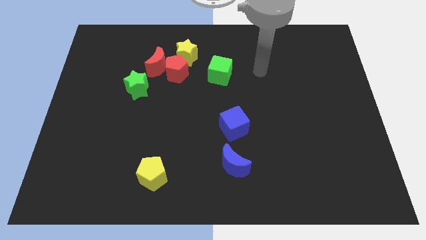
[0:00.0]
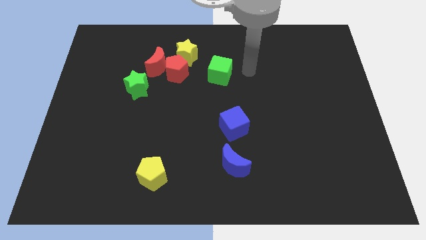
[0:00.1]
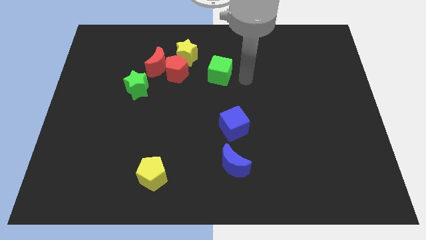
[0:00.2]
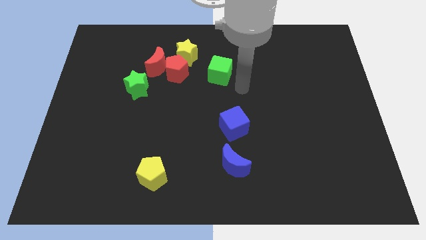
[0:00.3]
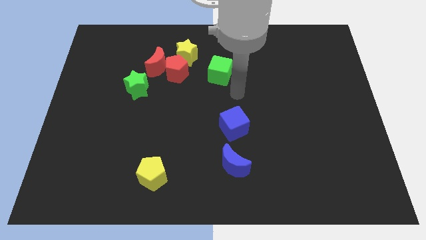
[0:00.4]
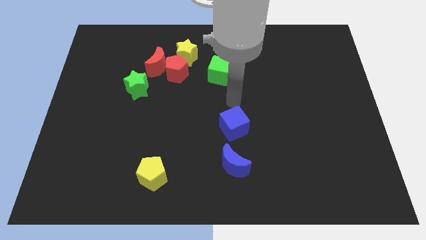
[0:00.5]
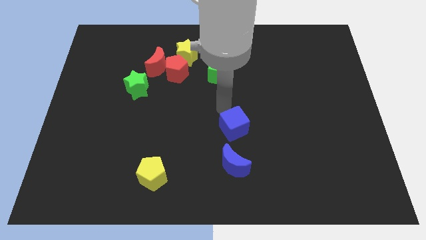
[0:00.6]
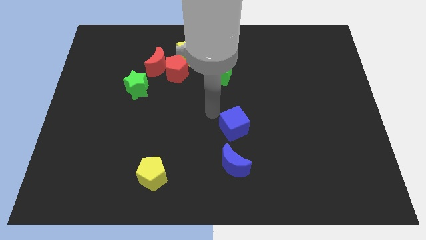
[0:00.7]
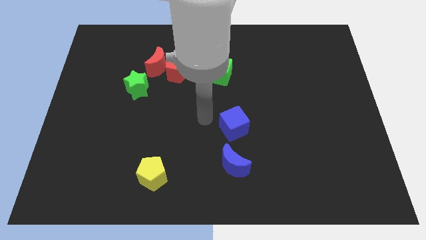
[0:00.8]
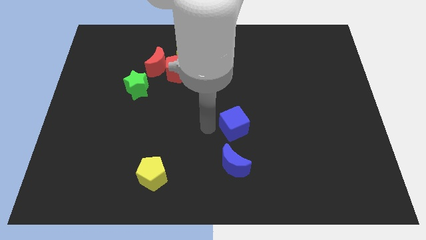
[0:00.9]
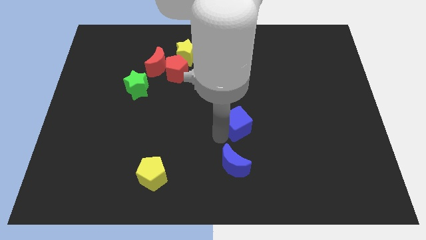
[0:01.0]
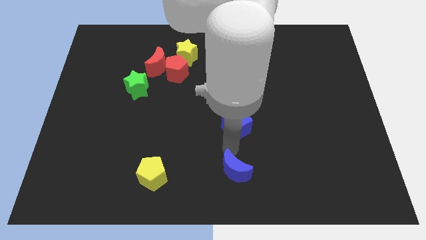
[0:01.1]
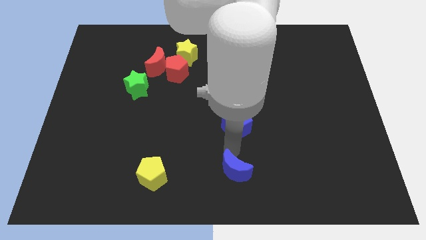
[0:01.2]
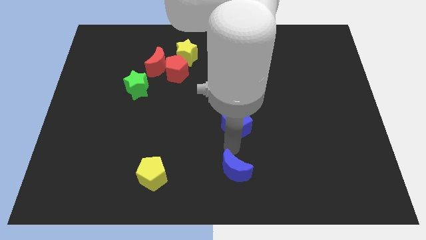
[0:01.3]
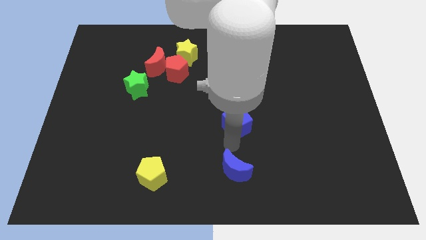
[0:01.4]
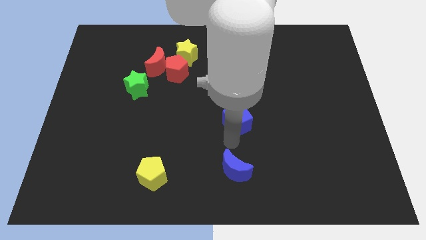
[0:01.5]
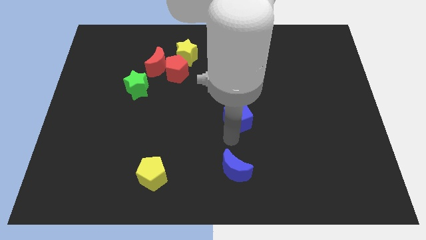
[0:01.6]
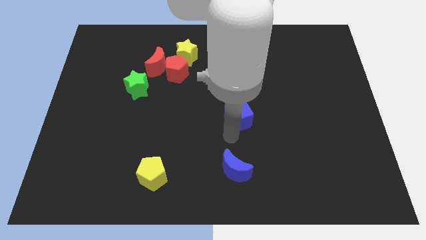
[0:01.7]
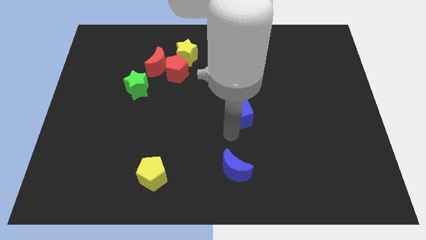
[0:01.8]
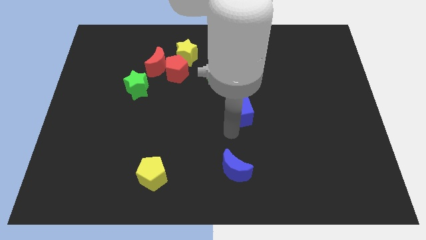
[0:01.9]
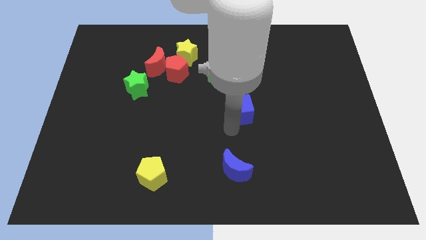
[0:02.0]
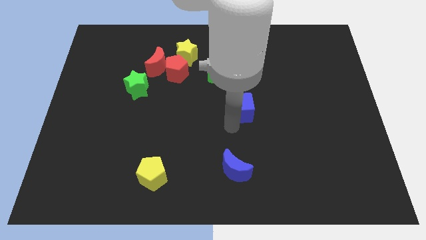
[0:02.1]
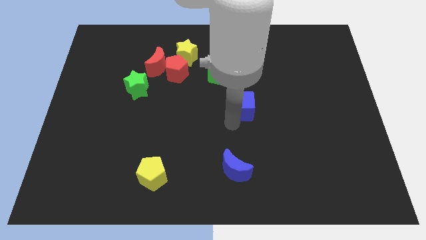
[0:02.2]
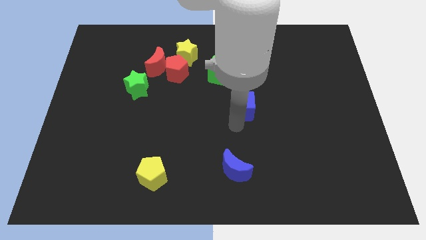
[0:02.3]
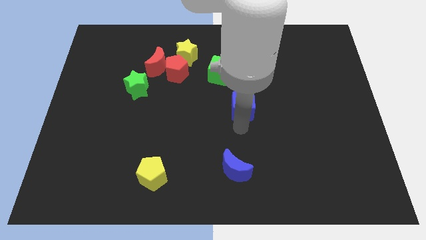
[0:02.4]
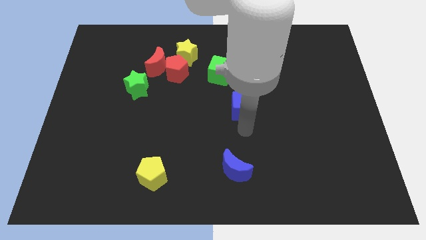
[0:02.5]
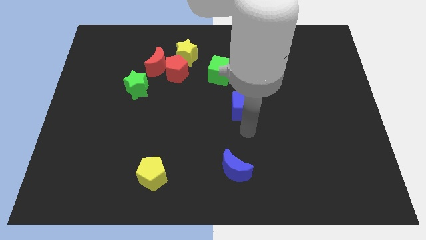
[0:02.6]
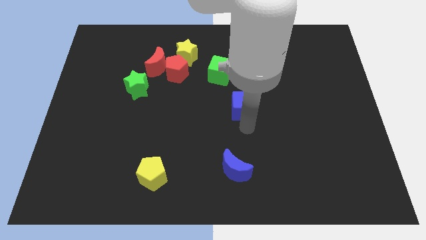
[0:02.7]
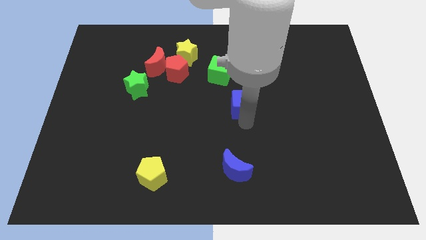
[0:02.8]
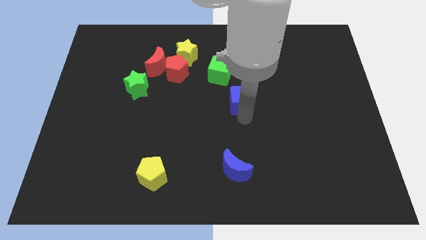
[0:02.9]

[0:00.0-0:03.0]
push the blue cube a little up

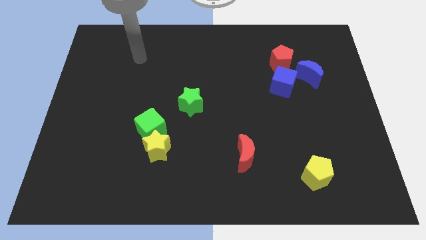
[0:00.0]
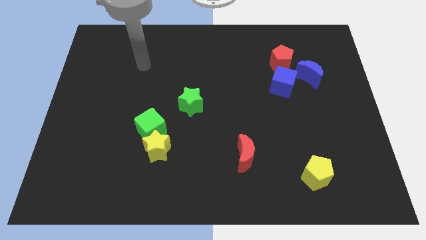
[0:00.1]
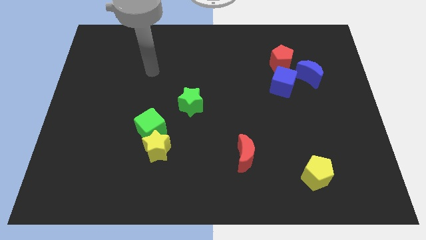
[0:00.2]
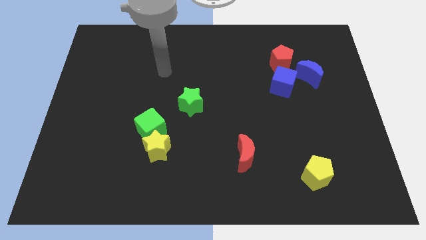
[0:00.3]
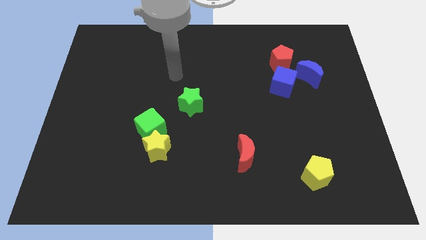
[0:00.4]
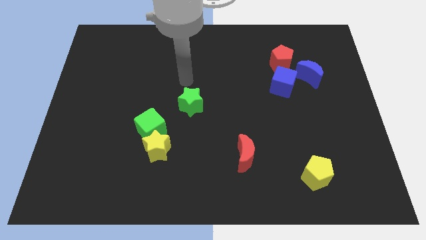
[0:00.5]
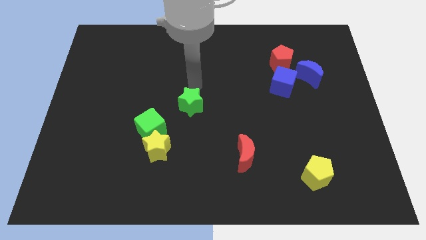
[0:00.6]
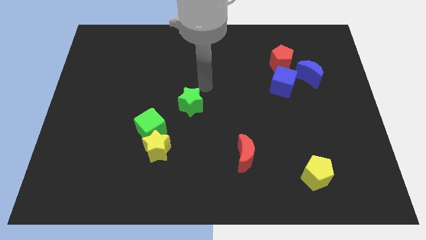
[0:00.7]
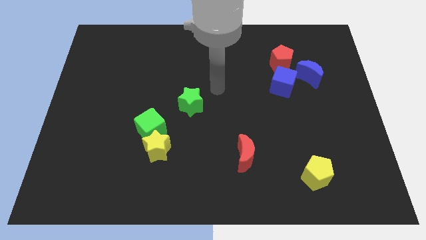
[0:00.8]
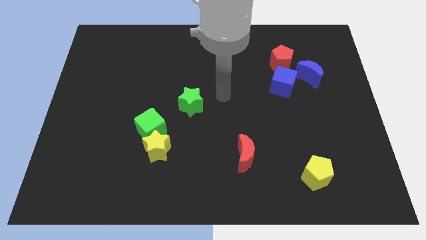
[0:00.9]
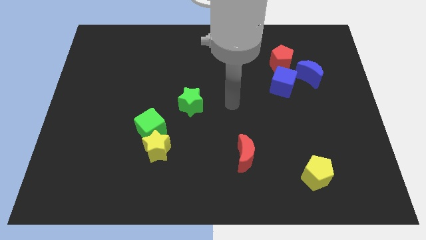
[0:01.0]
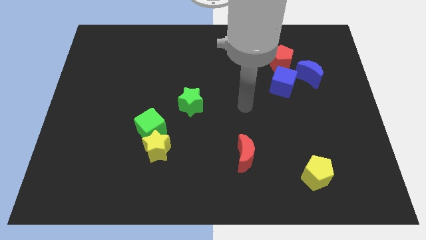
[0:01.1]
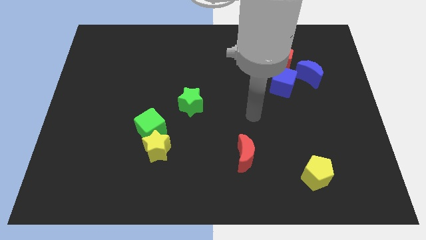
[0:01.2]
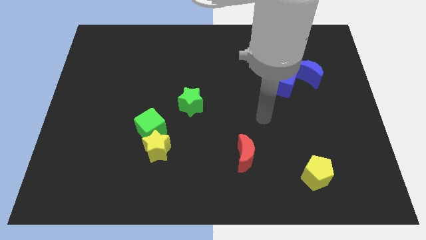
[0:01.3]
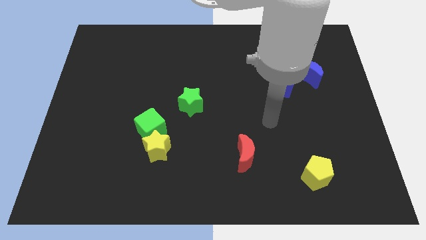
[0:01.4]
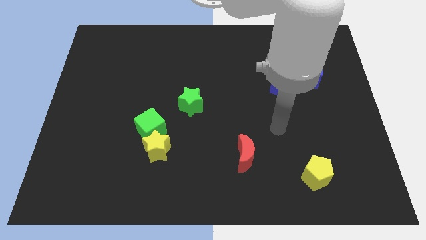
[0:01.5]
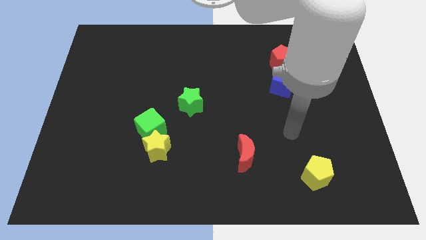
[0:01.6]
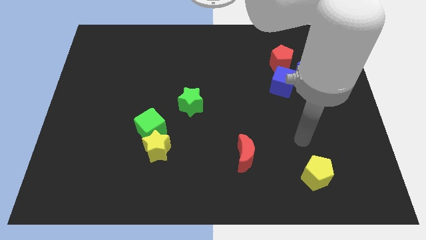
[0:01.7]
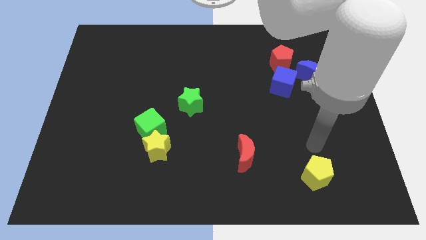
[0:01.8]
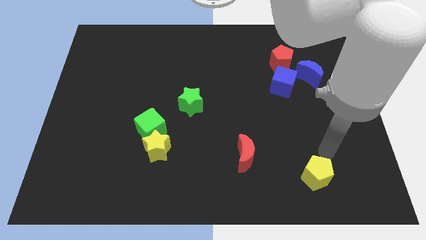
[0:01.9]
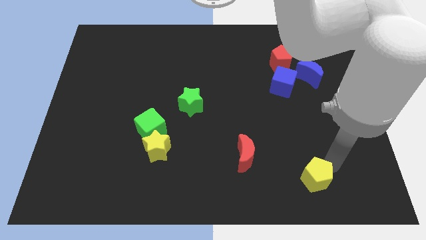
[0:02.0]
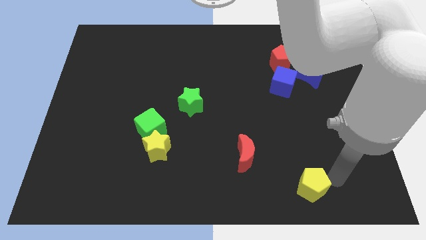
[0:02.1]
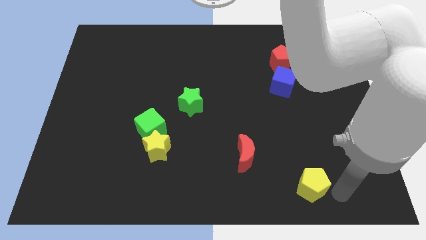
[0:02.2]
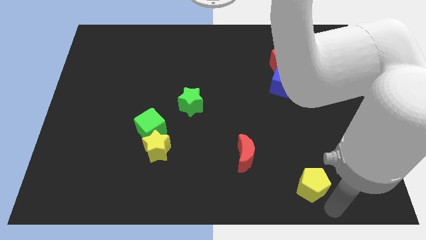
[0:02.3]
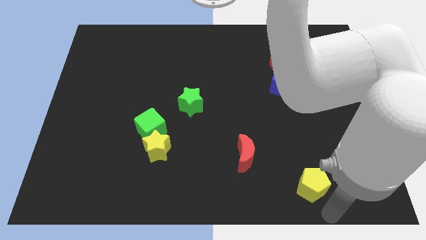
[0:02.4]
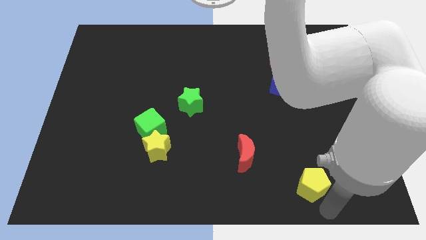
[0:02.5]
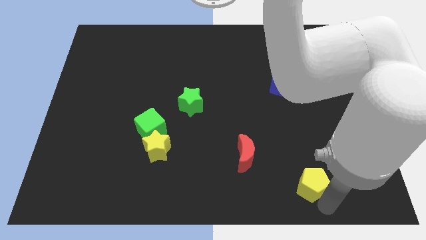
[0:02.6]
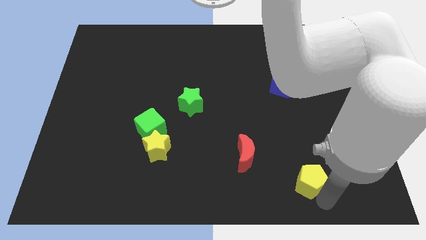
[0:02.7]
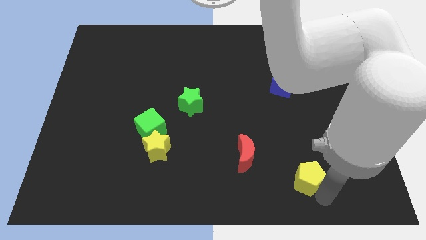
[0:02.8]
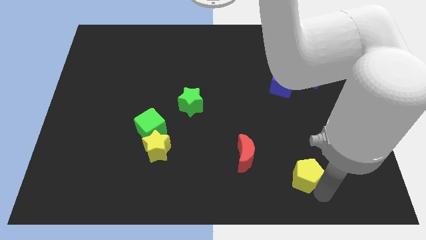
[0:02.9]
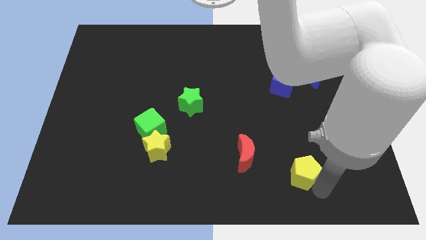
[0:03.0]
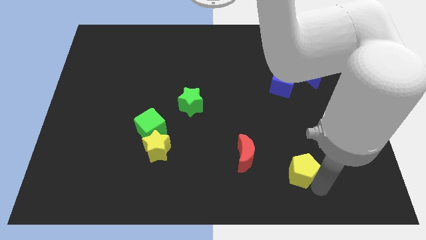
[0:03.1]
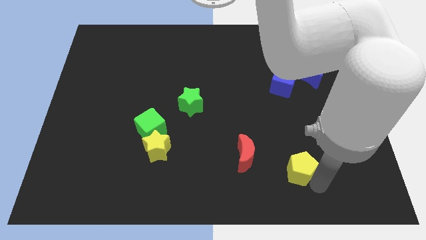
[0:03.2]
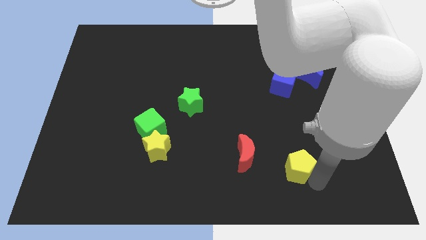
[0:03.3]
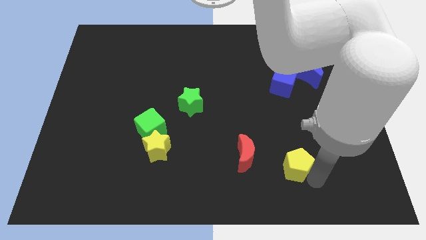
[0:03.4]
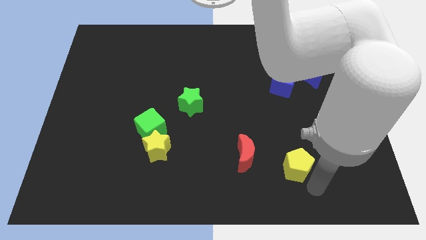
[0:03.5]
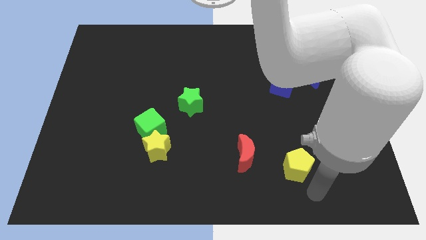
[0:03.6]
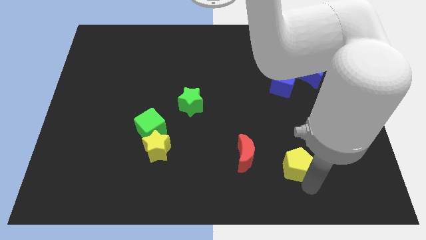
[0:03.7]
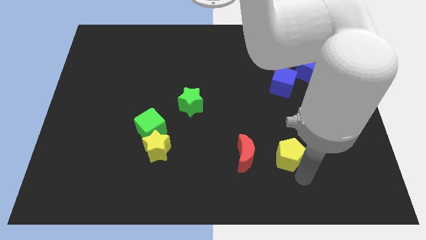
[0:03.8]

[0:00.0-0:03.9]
push the yellow pentagon a little upwards and then left
